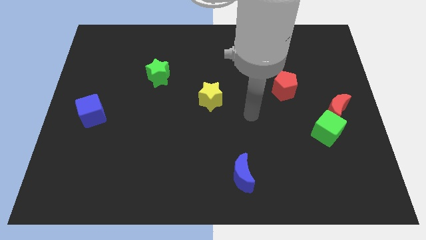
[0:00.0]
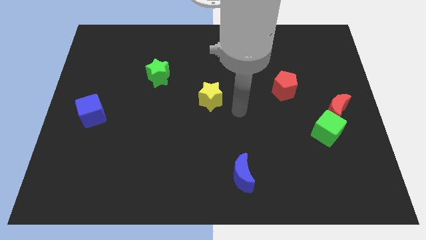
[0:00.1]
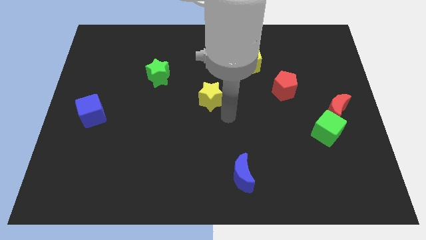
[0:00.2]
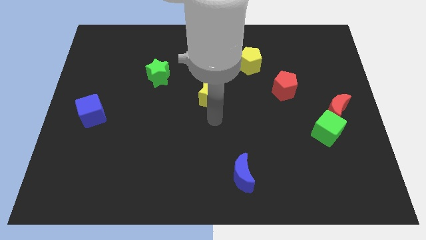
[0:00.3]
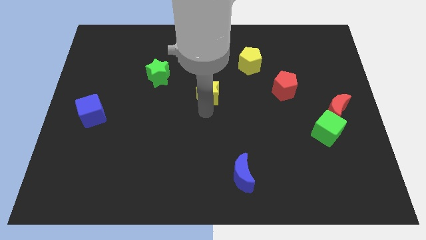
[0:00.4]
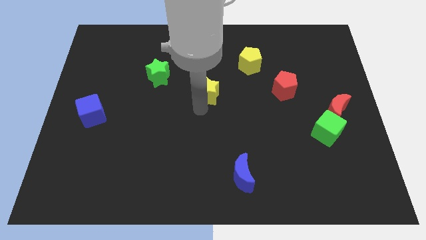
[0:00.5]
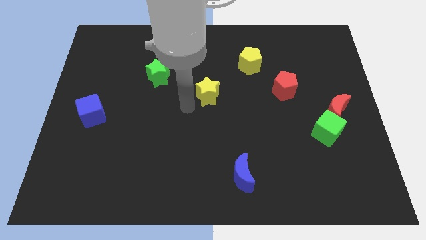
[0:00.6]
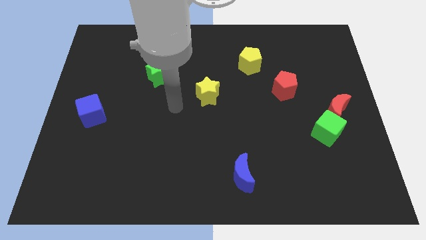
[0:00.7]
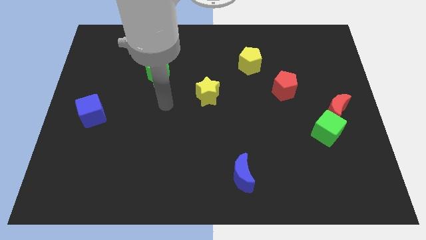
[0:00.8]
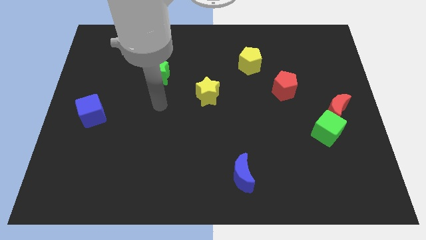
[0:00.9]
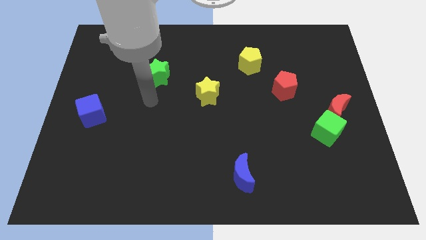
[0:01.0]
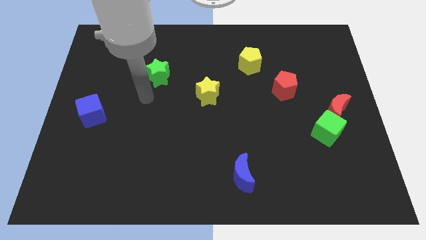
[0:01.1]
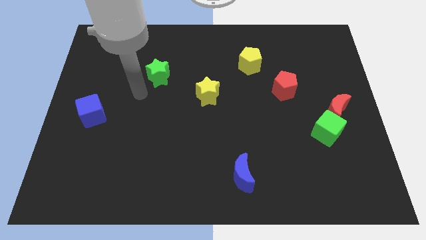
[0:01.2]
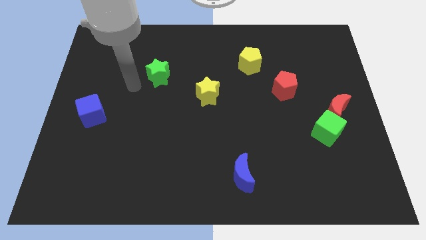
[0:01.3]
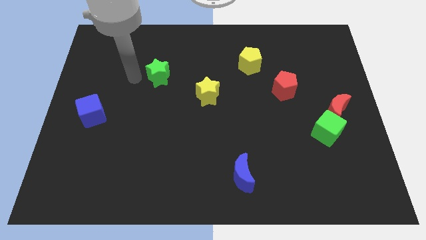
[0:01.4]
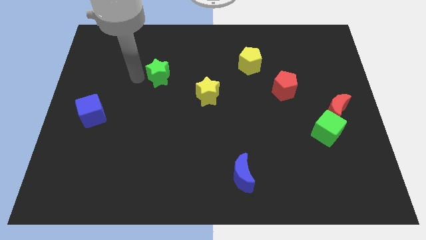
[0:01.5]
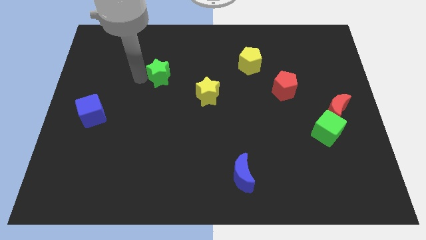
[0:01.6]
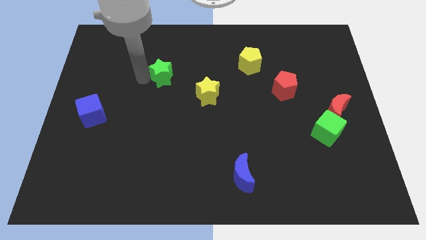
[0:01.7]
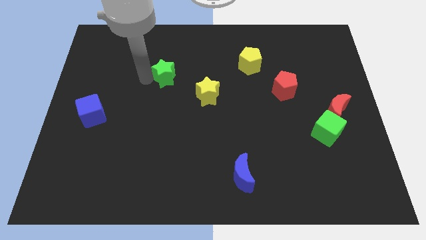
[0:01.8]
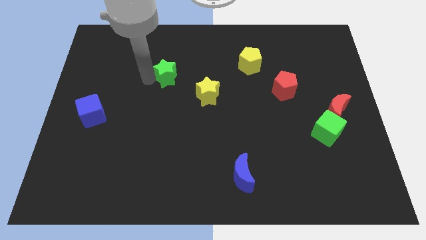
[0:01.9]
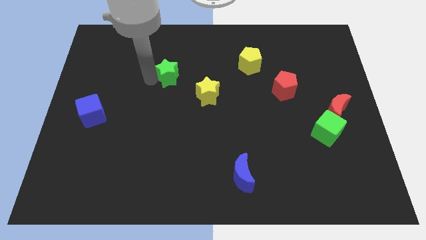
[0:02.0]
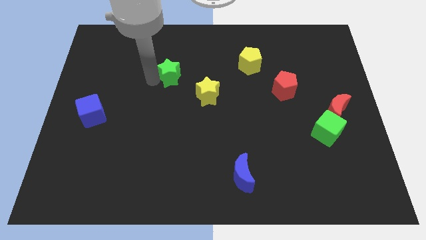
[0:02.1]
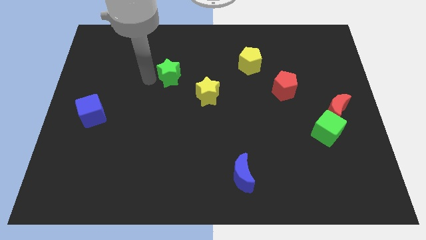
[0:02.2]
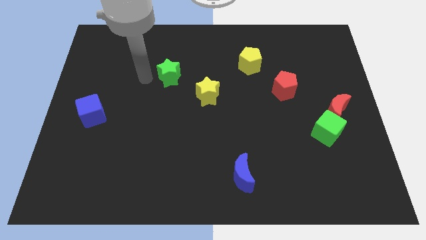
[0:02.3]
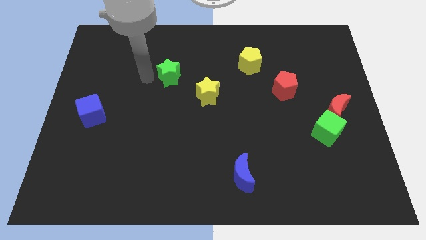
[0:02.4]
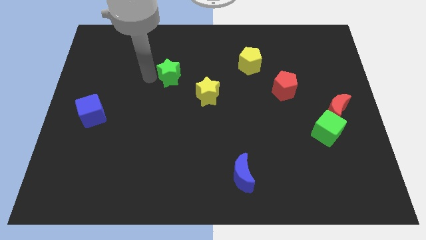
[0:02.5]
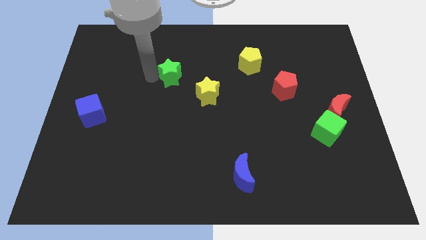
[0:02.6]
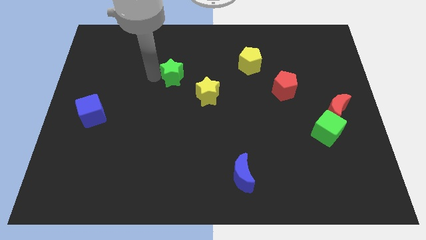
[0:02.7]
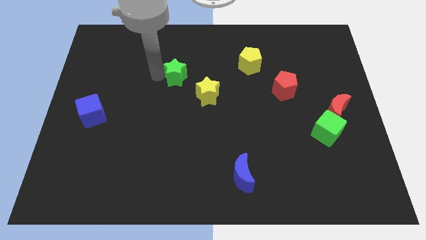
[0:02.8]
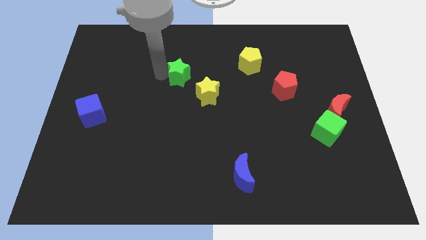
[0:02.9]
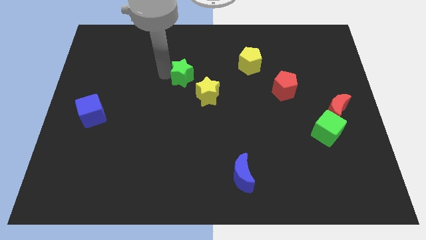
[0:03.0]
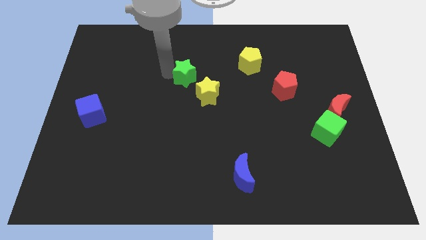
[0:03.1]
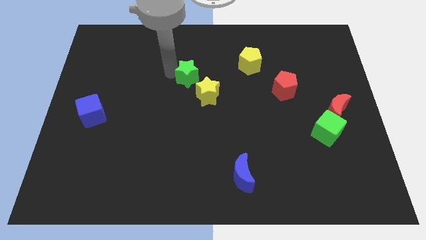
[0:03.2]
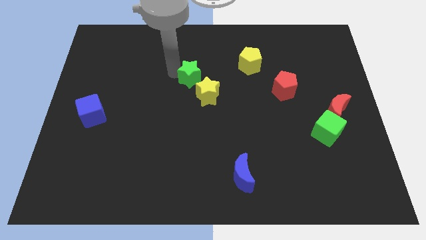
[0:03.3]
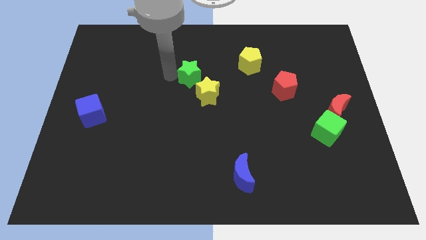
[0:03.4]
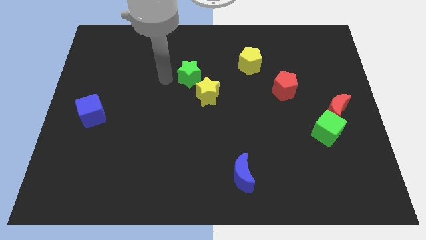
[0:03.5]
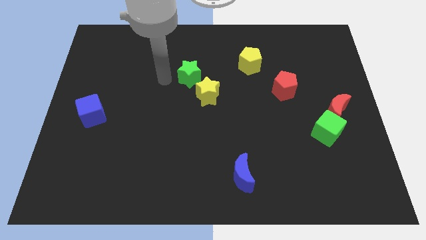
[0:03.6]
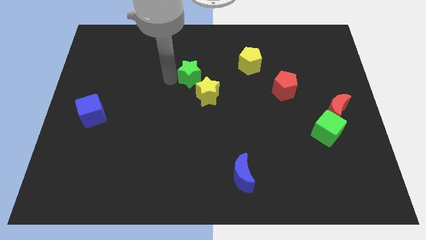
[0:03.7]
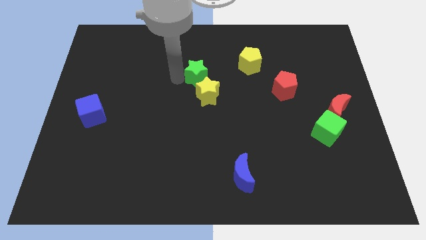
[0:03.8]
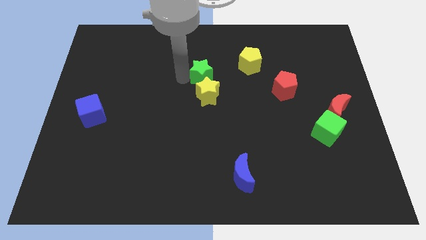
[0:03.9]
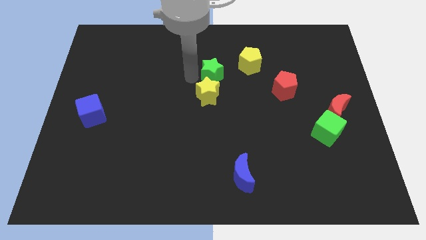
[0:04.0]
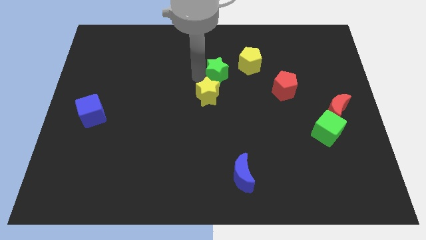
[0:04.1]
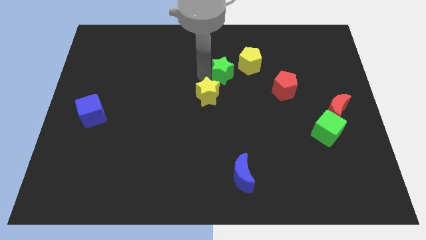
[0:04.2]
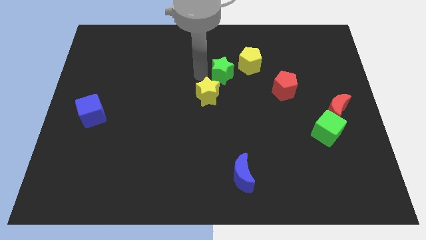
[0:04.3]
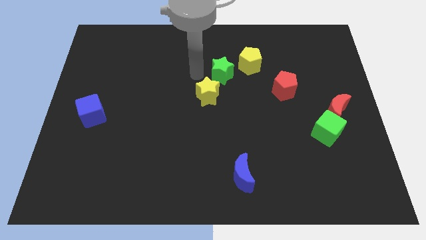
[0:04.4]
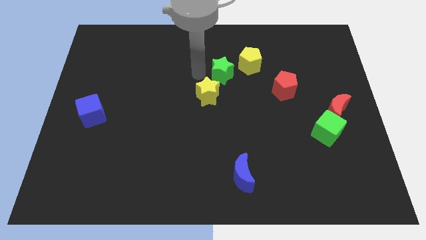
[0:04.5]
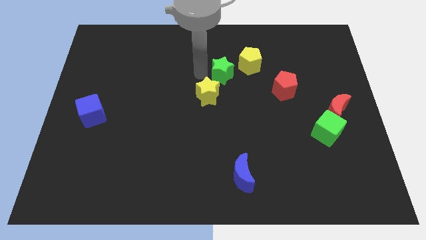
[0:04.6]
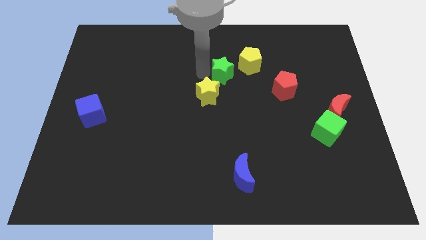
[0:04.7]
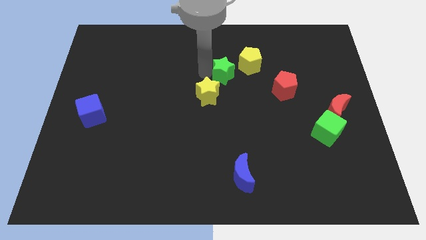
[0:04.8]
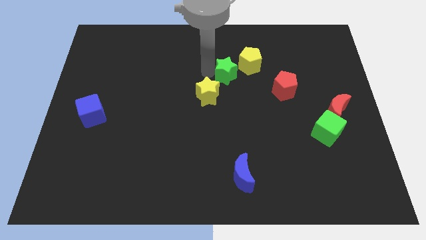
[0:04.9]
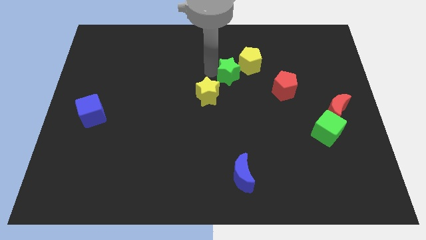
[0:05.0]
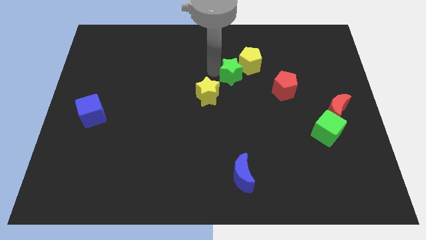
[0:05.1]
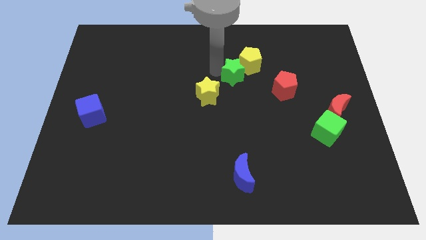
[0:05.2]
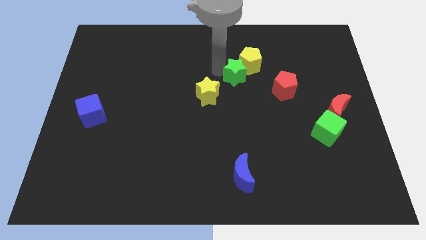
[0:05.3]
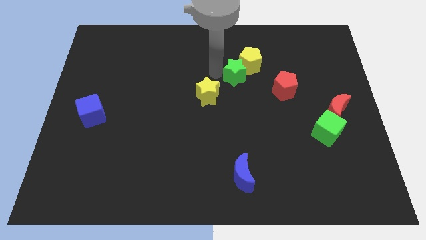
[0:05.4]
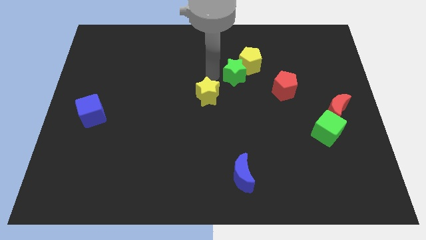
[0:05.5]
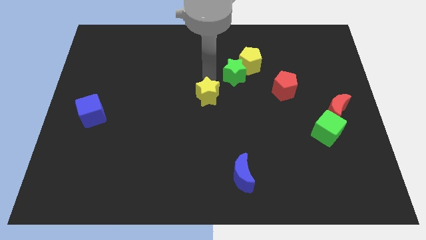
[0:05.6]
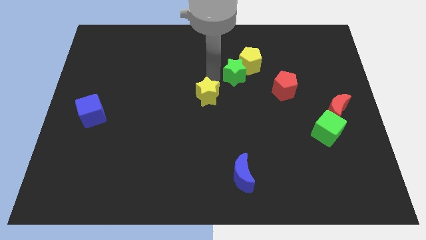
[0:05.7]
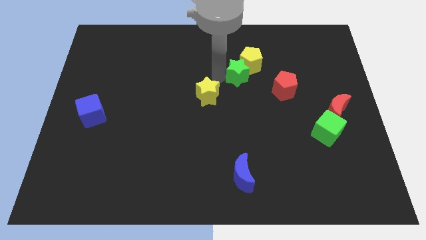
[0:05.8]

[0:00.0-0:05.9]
move the green star to the right

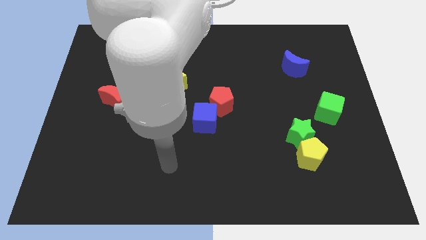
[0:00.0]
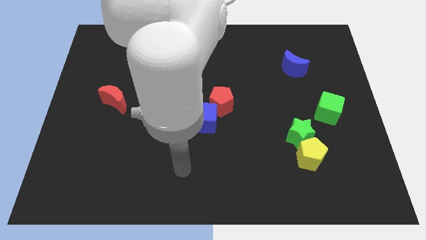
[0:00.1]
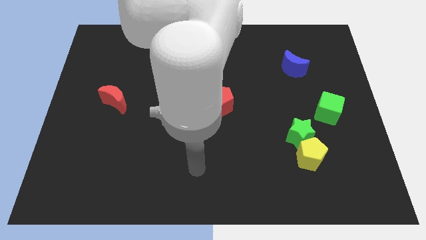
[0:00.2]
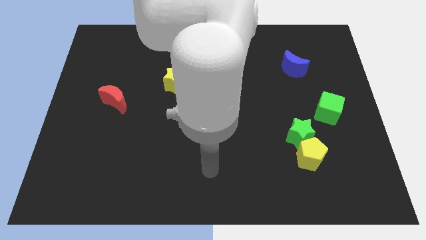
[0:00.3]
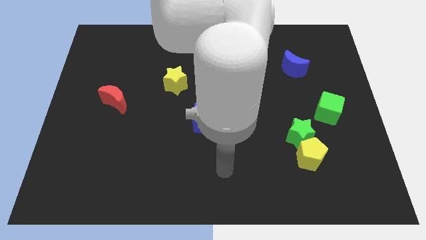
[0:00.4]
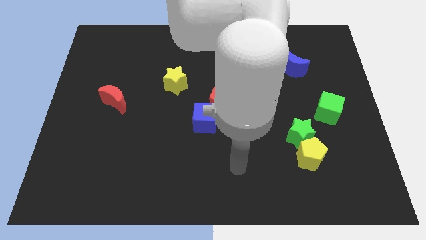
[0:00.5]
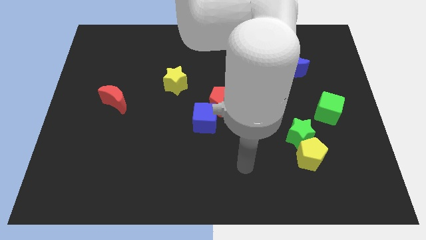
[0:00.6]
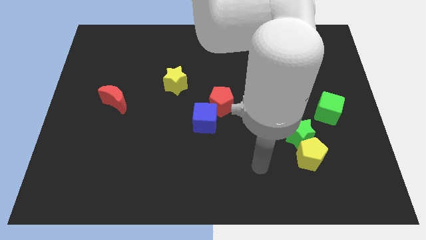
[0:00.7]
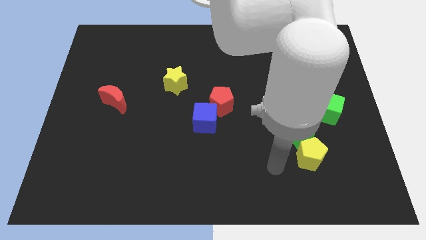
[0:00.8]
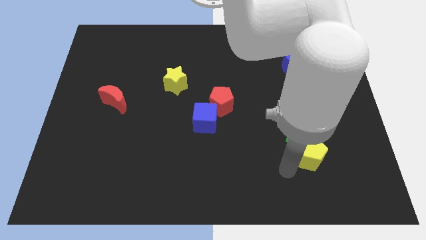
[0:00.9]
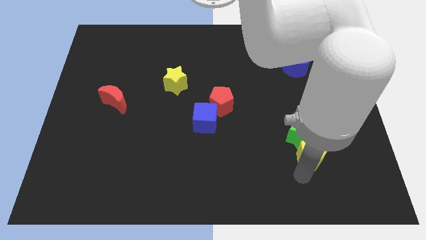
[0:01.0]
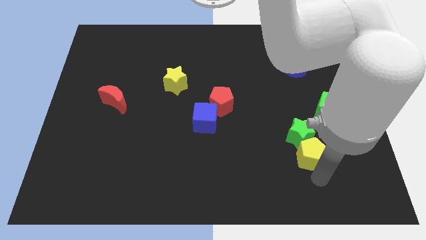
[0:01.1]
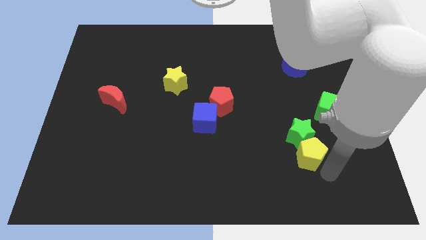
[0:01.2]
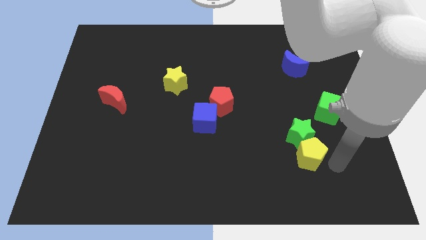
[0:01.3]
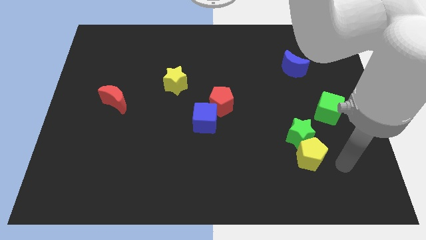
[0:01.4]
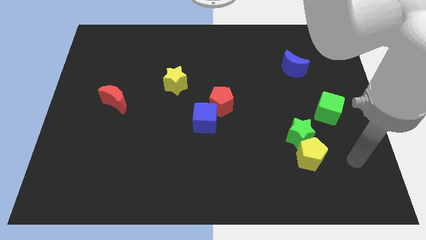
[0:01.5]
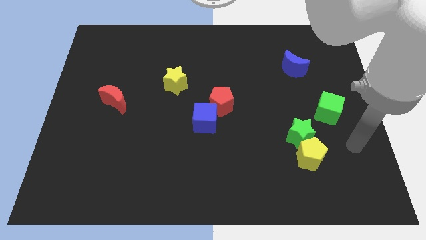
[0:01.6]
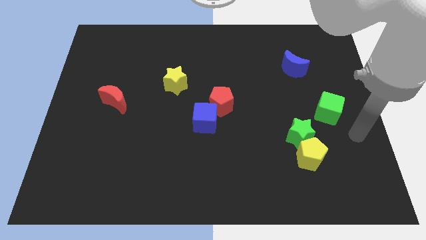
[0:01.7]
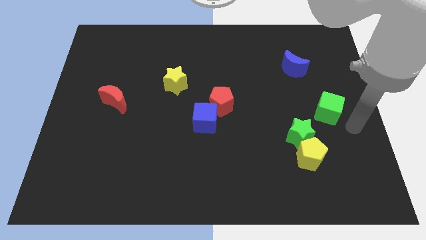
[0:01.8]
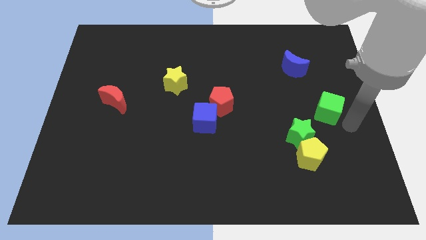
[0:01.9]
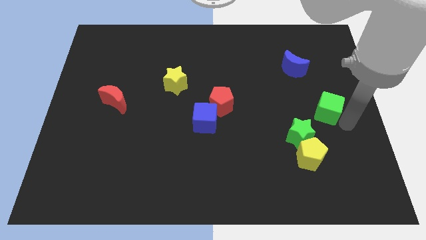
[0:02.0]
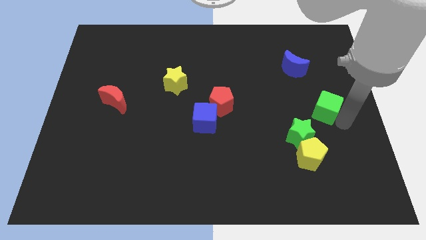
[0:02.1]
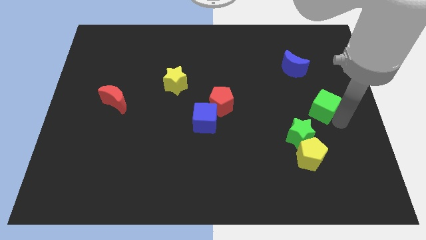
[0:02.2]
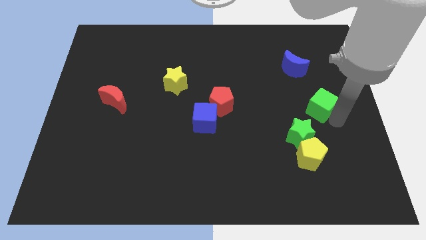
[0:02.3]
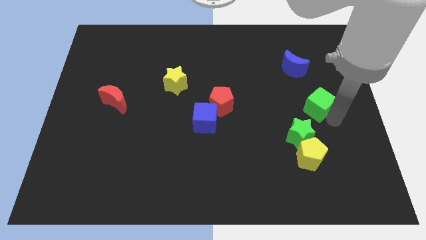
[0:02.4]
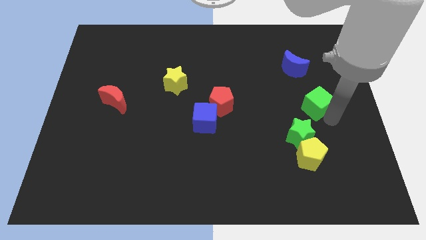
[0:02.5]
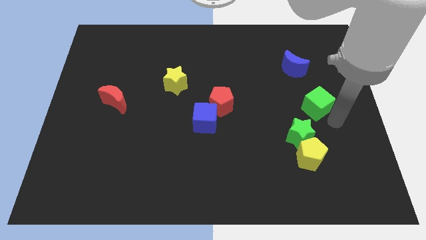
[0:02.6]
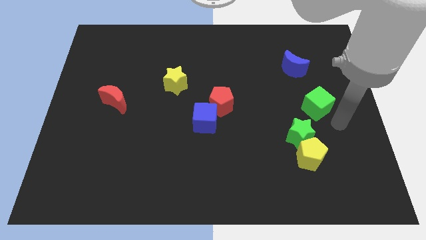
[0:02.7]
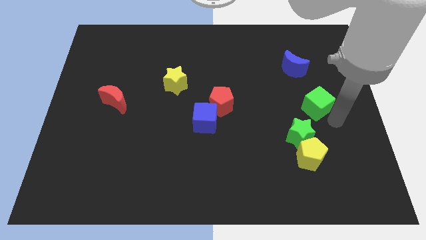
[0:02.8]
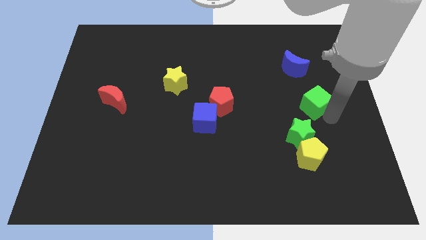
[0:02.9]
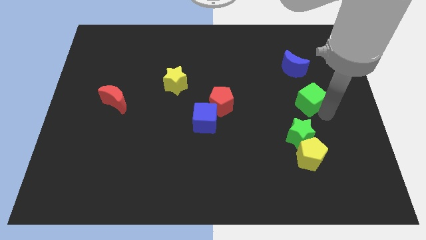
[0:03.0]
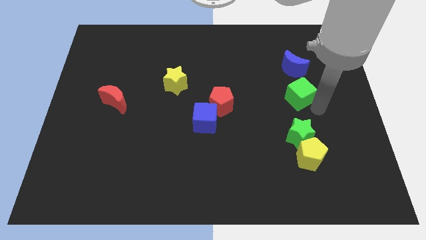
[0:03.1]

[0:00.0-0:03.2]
push the green cube a little bit diagonally upwards and left
